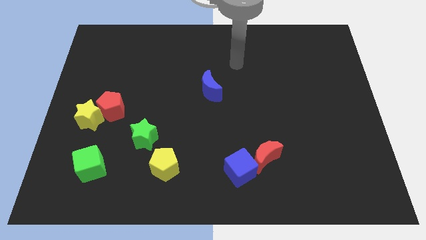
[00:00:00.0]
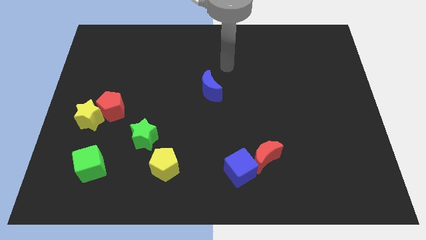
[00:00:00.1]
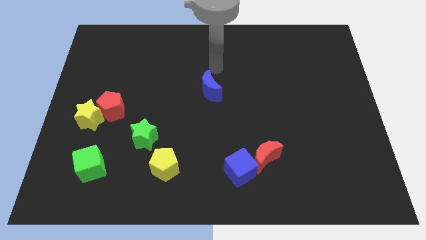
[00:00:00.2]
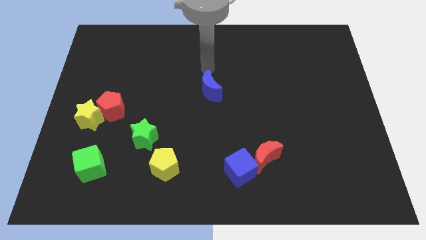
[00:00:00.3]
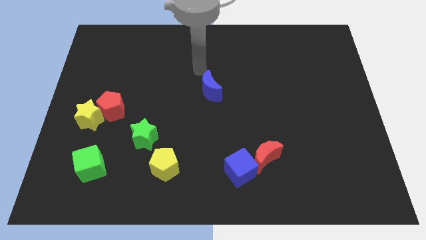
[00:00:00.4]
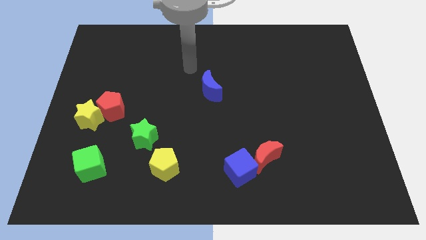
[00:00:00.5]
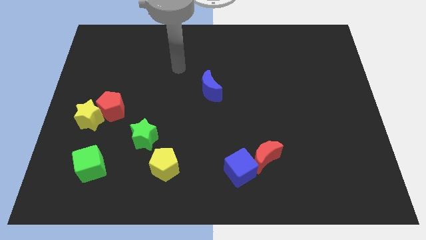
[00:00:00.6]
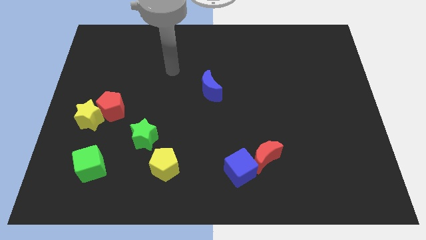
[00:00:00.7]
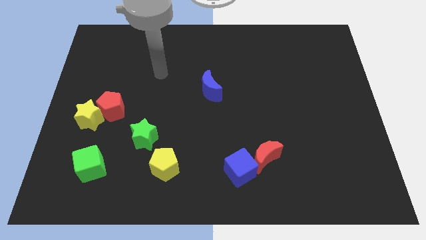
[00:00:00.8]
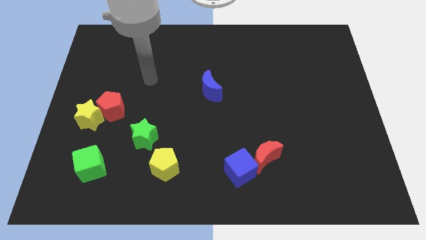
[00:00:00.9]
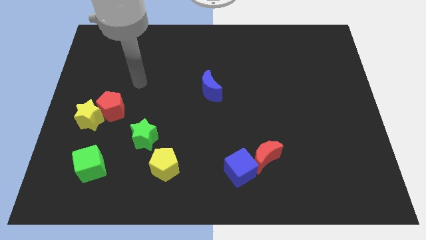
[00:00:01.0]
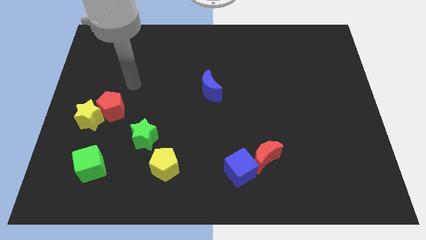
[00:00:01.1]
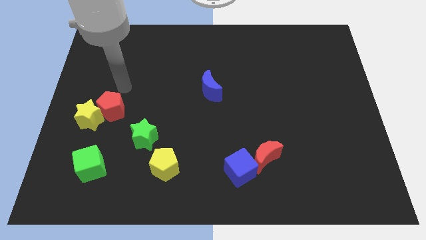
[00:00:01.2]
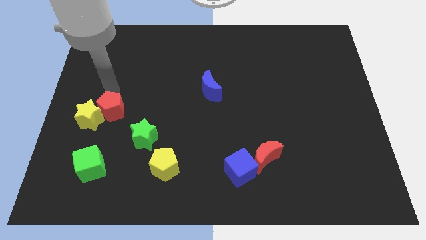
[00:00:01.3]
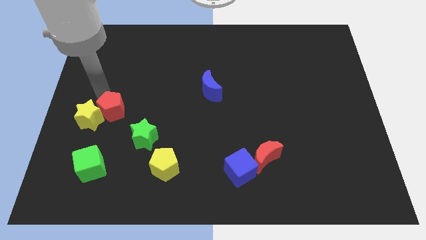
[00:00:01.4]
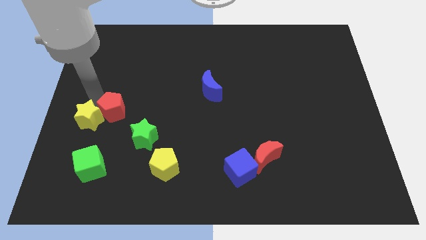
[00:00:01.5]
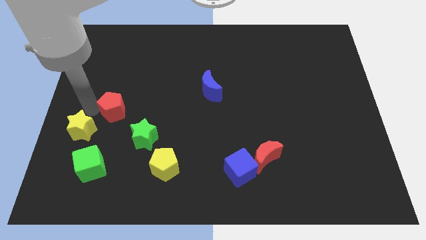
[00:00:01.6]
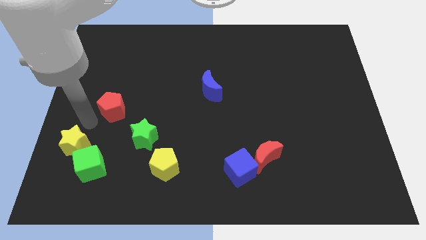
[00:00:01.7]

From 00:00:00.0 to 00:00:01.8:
move the red pentagon away from the yellow star

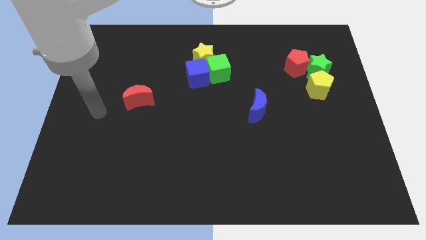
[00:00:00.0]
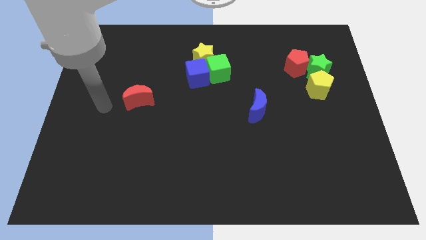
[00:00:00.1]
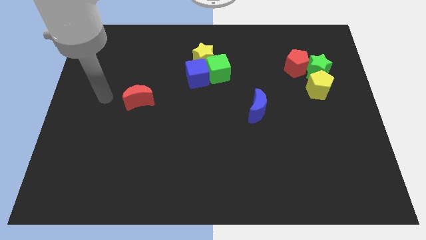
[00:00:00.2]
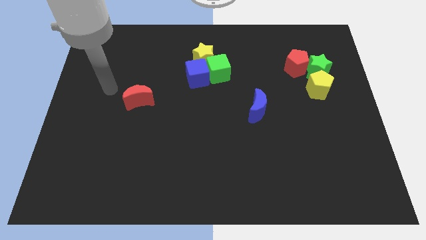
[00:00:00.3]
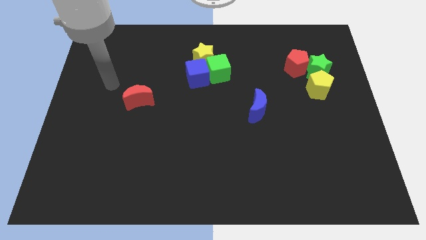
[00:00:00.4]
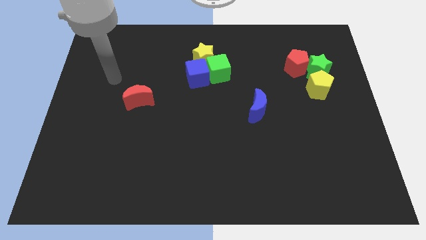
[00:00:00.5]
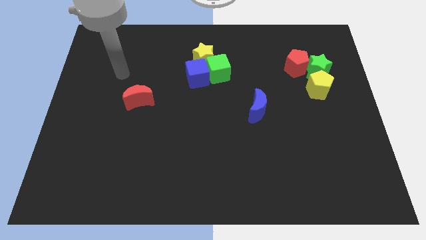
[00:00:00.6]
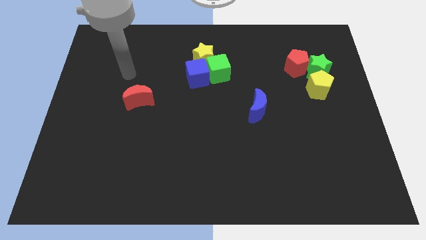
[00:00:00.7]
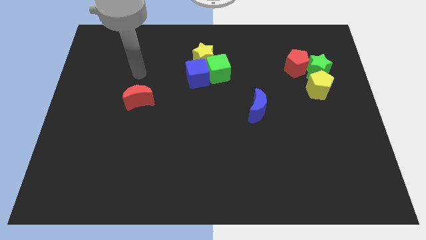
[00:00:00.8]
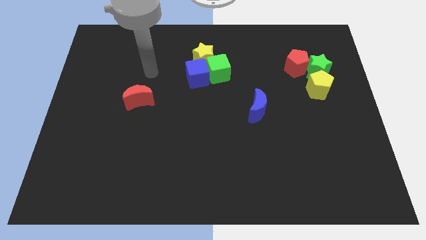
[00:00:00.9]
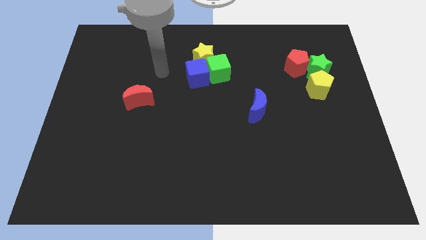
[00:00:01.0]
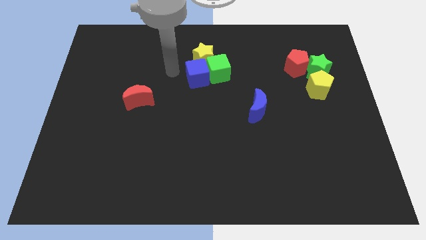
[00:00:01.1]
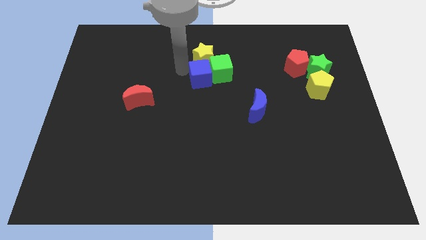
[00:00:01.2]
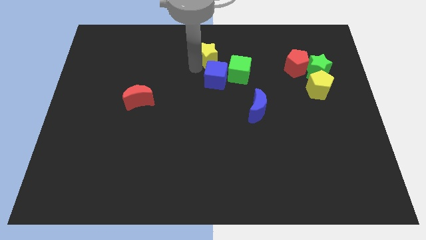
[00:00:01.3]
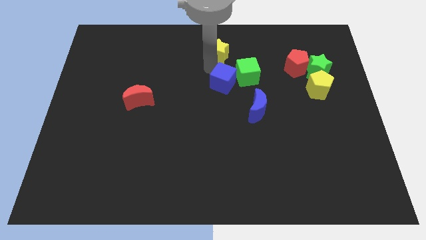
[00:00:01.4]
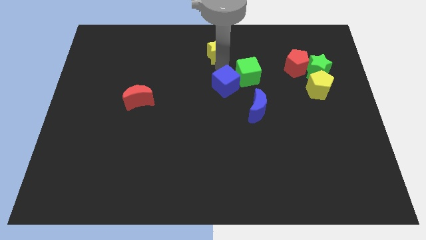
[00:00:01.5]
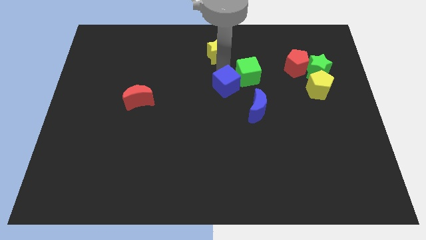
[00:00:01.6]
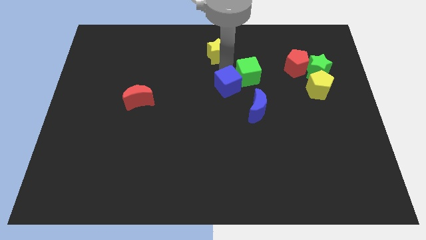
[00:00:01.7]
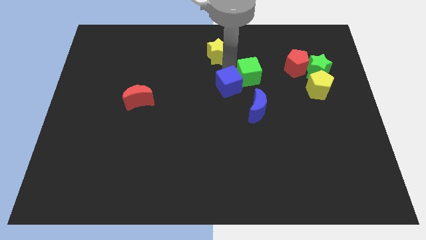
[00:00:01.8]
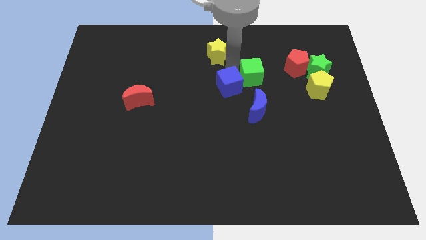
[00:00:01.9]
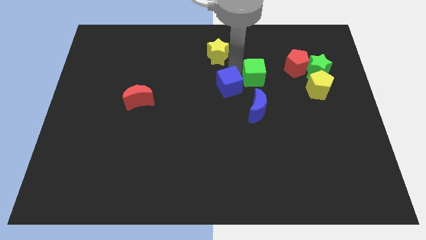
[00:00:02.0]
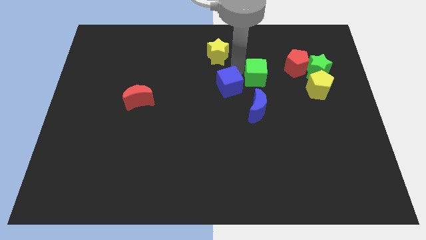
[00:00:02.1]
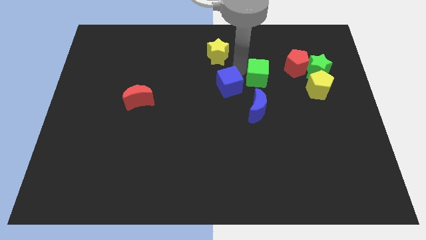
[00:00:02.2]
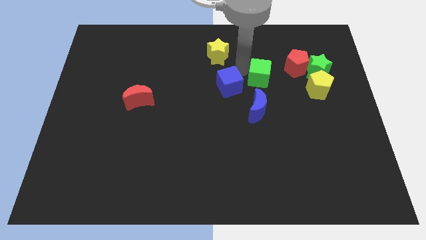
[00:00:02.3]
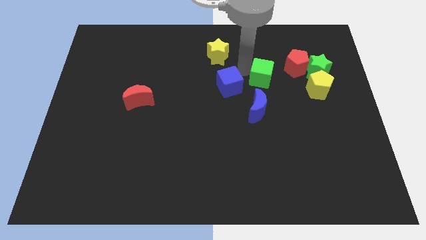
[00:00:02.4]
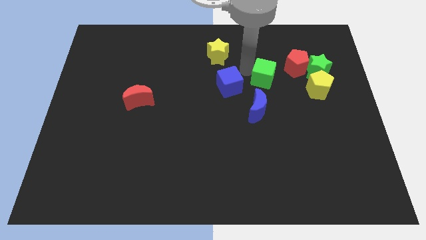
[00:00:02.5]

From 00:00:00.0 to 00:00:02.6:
move the green cube away from the blue cube and yellow star

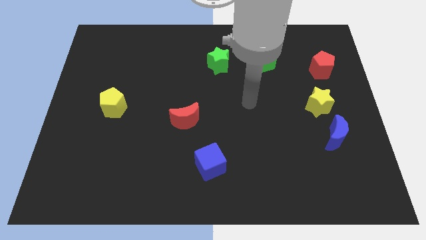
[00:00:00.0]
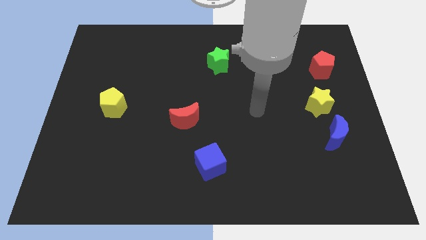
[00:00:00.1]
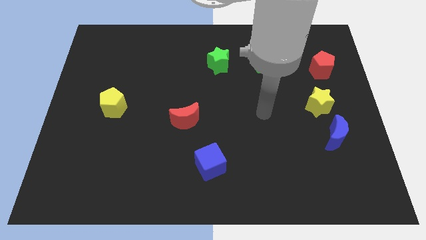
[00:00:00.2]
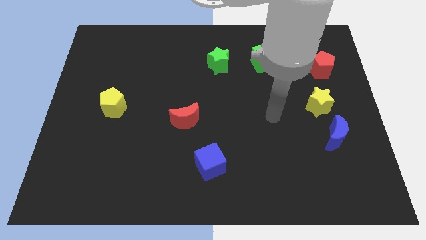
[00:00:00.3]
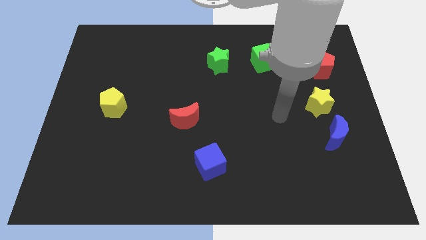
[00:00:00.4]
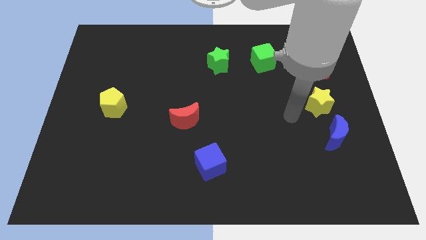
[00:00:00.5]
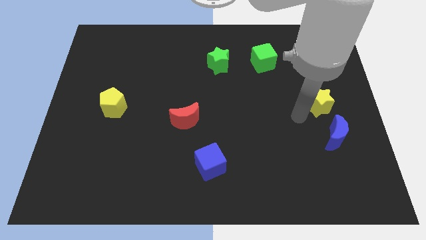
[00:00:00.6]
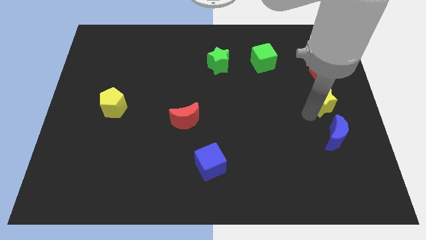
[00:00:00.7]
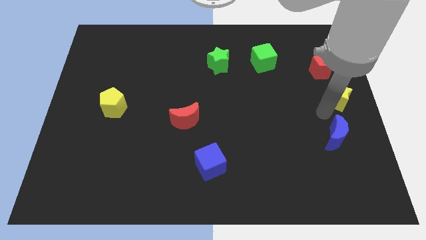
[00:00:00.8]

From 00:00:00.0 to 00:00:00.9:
move the blue moon away from the yellow star

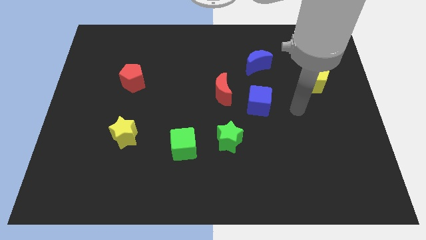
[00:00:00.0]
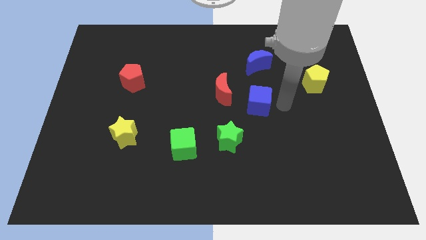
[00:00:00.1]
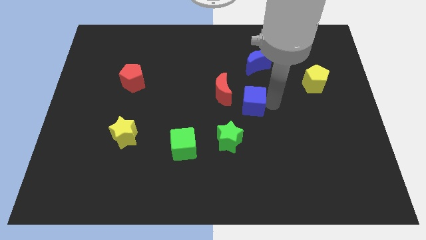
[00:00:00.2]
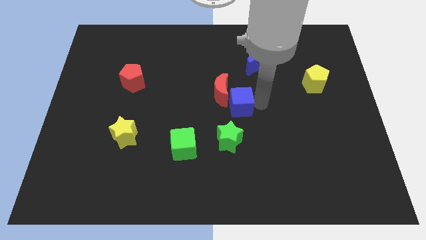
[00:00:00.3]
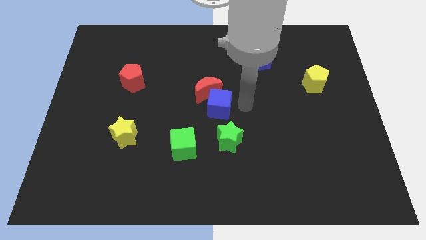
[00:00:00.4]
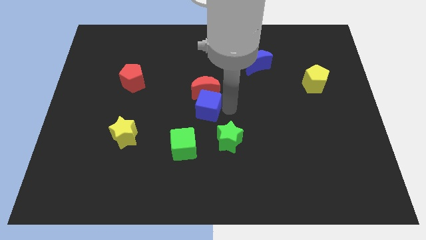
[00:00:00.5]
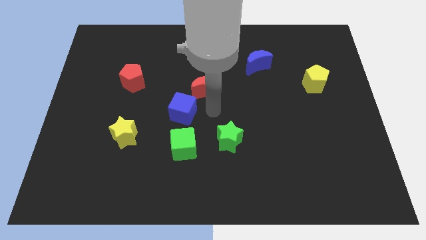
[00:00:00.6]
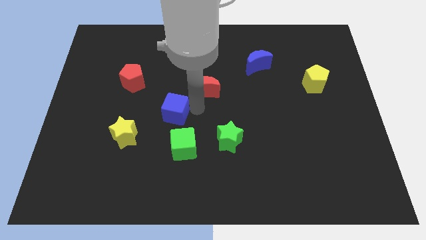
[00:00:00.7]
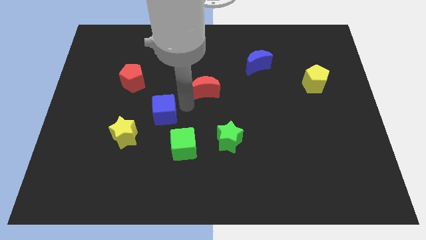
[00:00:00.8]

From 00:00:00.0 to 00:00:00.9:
separate the red moon from the blue cube

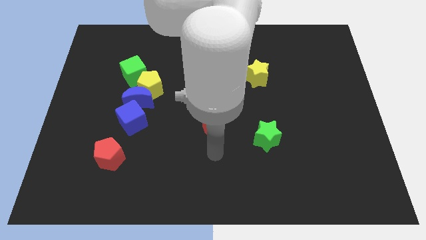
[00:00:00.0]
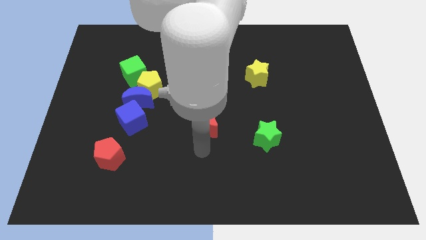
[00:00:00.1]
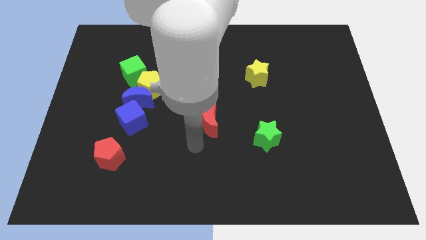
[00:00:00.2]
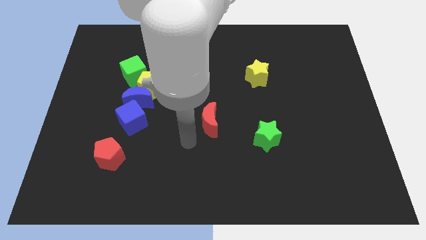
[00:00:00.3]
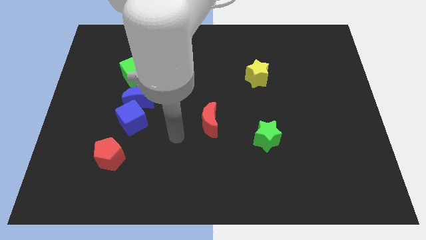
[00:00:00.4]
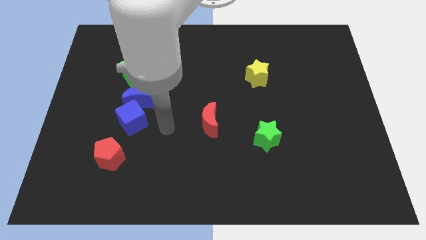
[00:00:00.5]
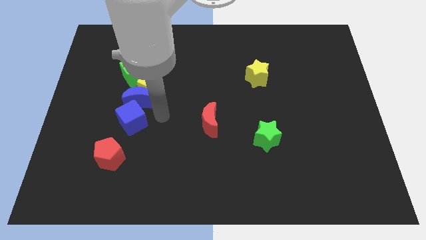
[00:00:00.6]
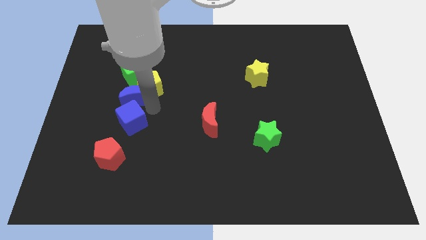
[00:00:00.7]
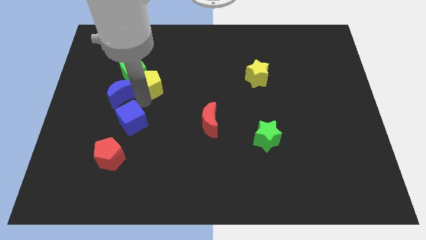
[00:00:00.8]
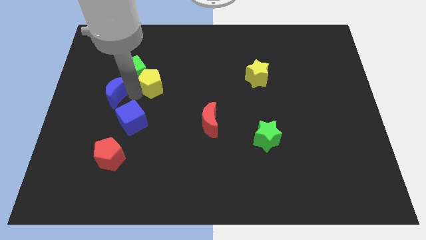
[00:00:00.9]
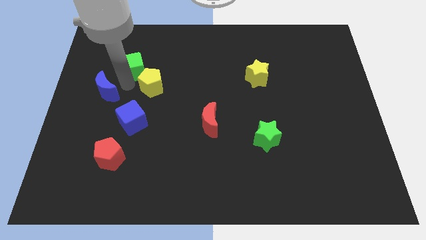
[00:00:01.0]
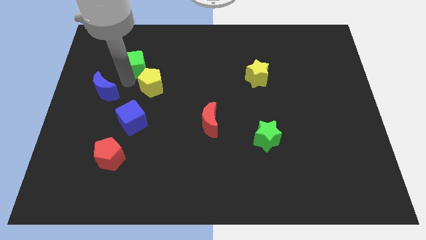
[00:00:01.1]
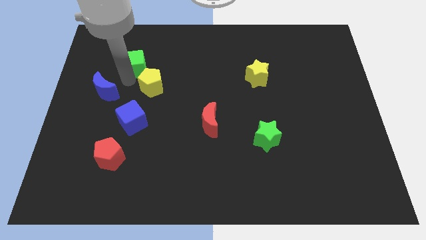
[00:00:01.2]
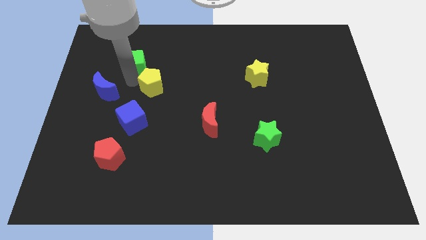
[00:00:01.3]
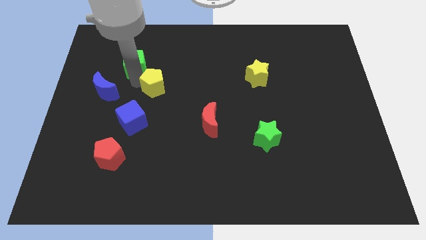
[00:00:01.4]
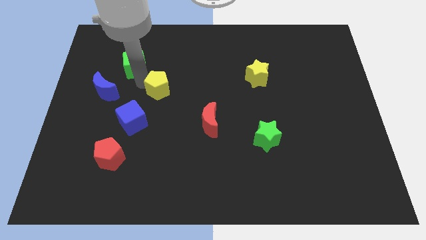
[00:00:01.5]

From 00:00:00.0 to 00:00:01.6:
move the yellow pentagon away from the blue moon and green cube
